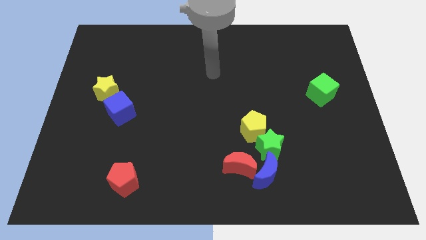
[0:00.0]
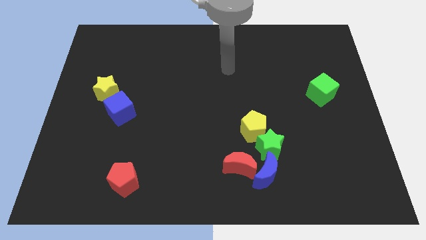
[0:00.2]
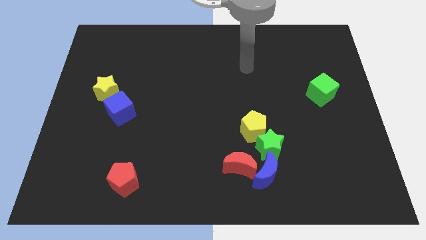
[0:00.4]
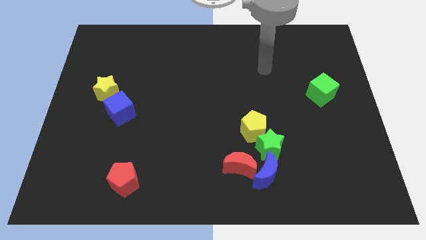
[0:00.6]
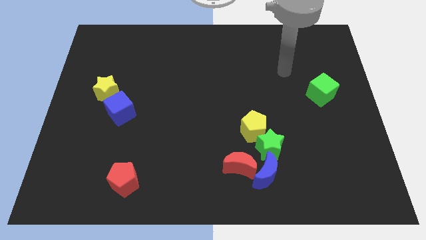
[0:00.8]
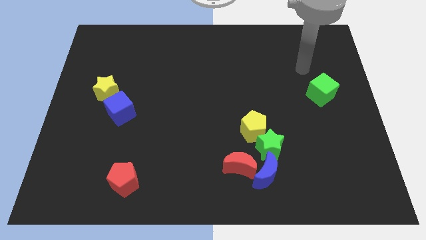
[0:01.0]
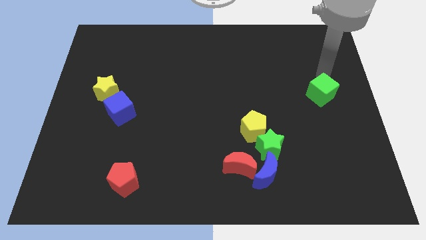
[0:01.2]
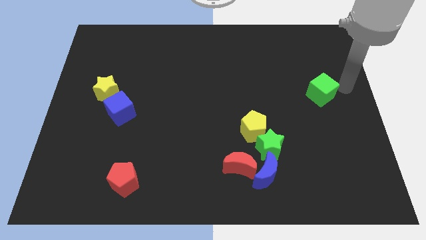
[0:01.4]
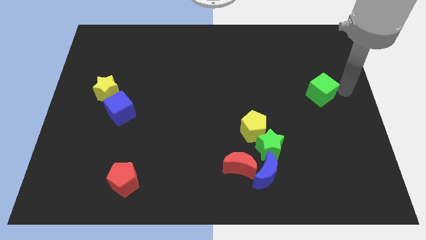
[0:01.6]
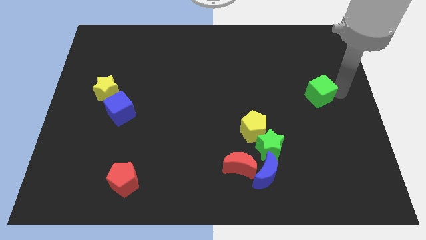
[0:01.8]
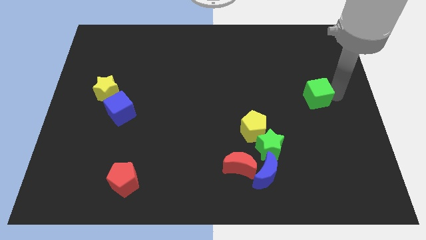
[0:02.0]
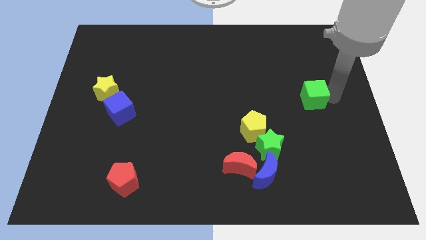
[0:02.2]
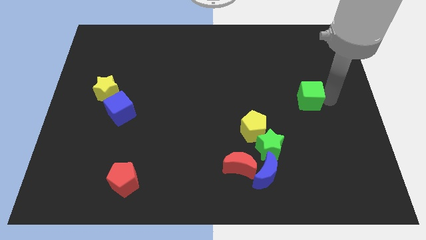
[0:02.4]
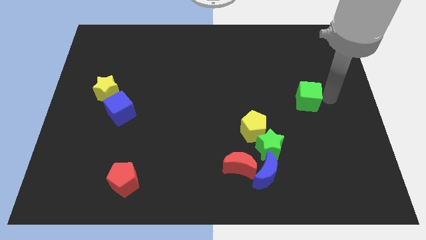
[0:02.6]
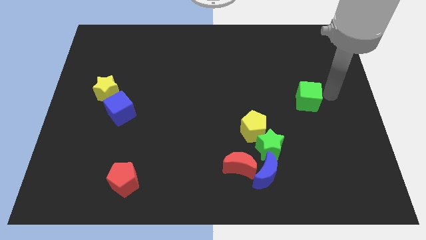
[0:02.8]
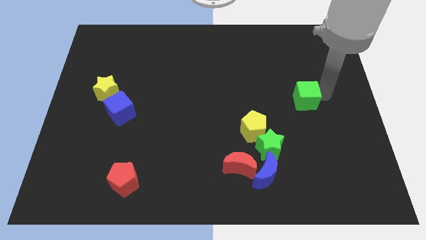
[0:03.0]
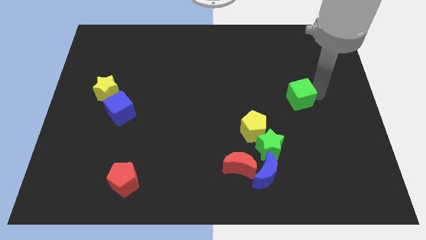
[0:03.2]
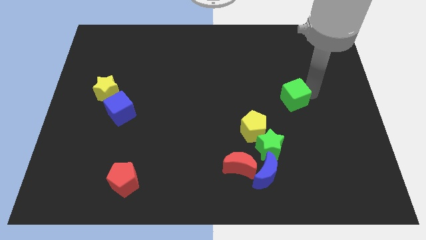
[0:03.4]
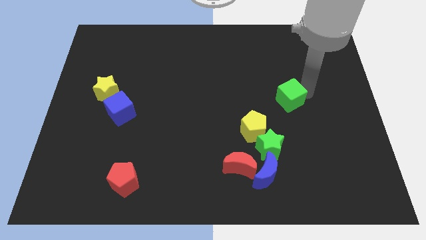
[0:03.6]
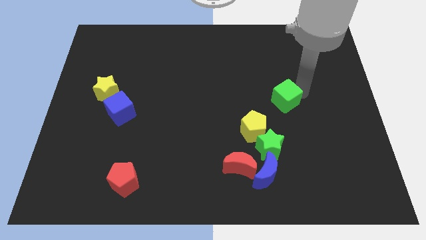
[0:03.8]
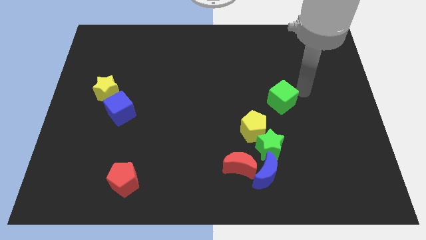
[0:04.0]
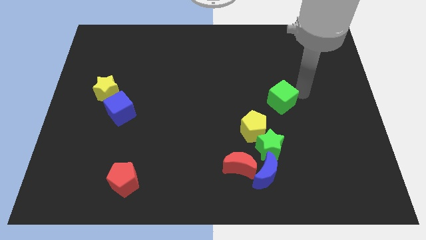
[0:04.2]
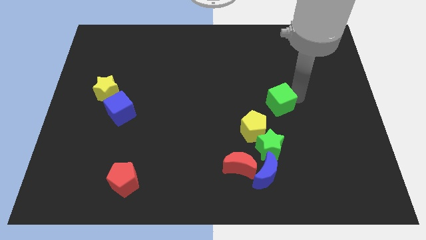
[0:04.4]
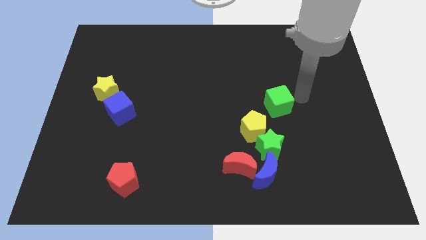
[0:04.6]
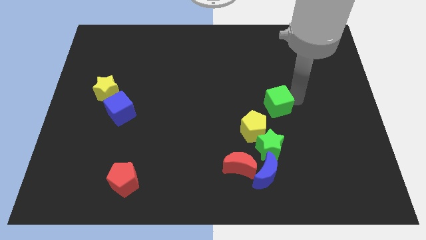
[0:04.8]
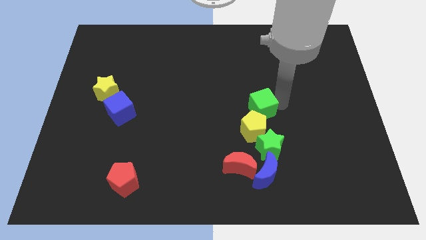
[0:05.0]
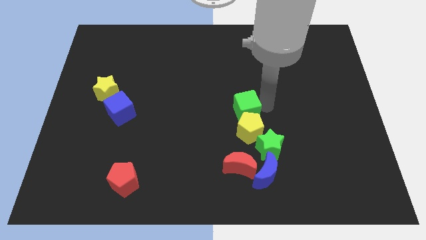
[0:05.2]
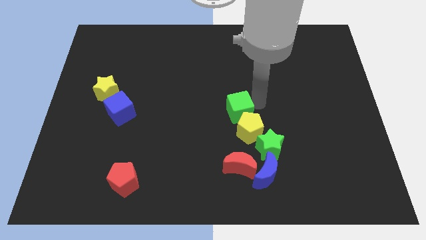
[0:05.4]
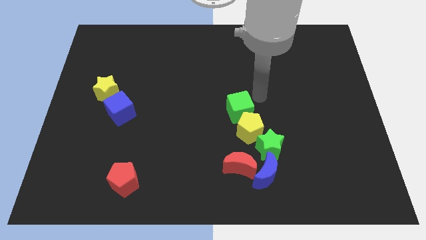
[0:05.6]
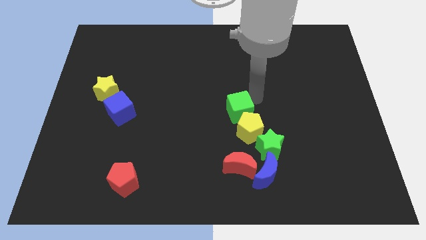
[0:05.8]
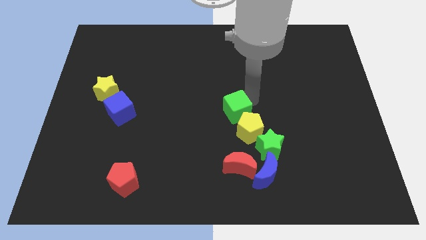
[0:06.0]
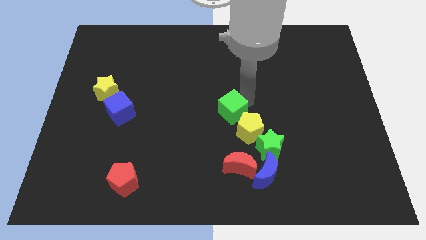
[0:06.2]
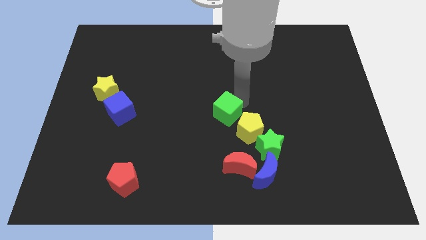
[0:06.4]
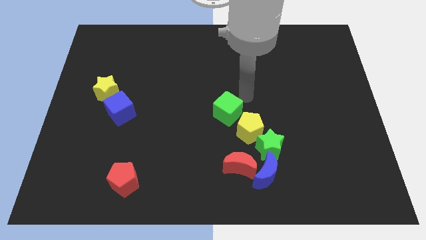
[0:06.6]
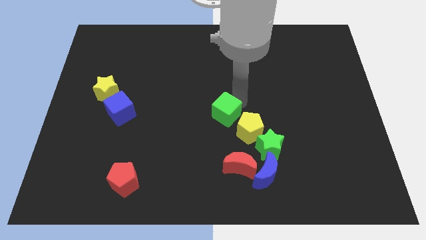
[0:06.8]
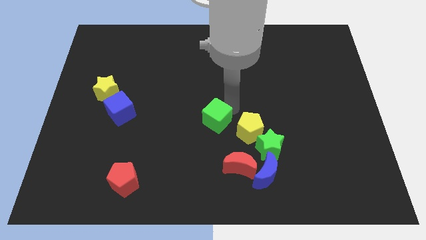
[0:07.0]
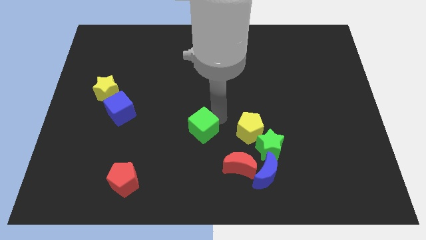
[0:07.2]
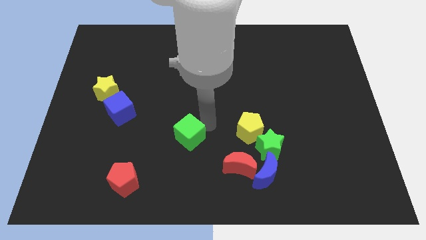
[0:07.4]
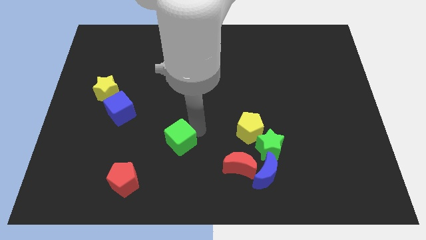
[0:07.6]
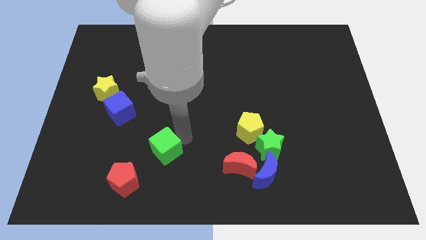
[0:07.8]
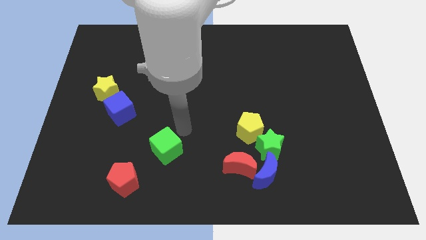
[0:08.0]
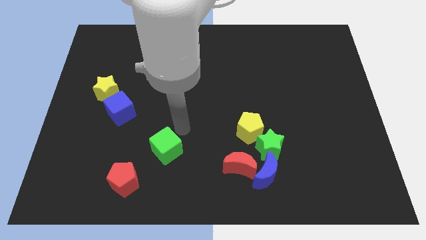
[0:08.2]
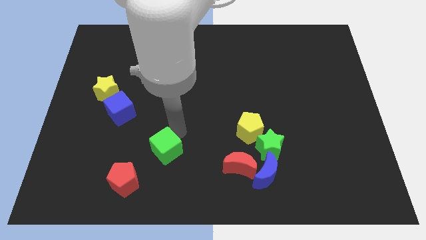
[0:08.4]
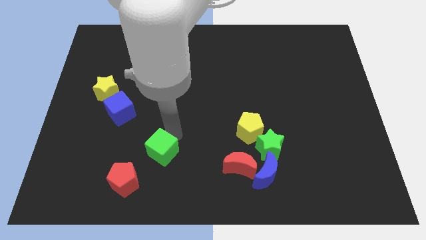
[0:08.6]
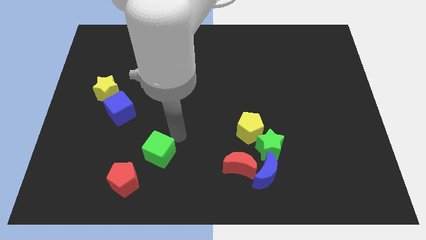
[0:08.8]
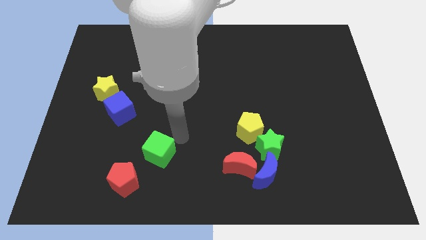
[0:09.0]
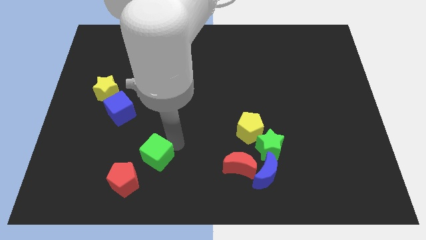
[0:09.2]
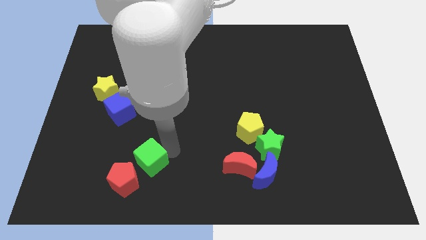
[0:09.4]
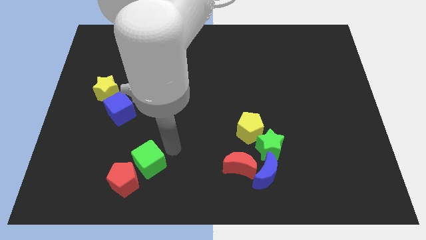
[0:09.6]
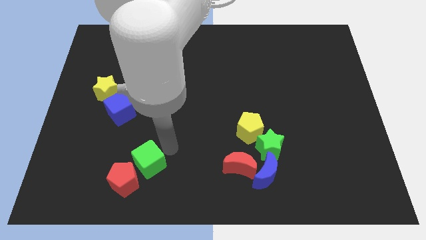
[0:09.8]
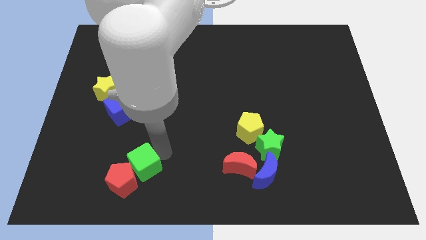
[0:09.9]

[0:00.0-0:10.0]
move the green cube to the red pentagon

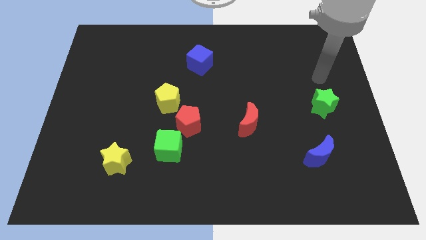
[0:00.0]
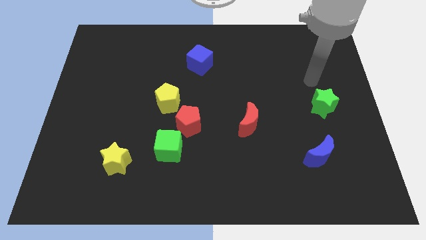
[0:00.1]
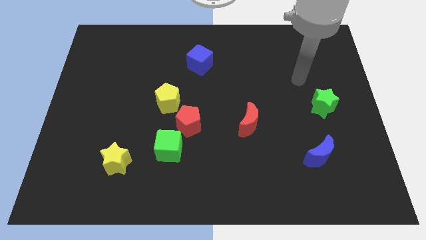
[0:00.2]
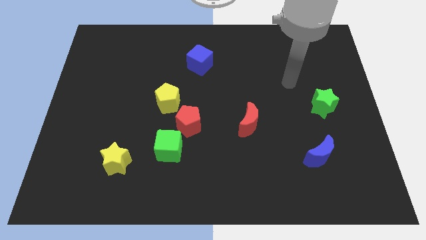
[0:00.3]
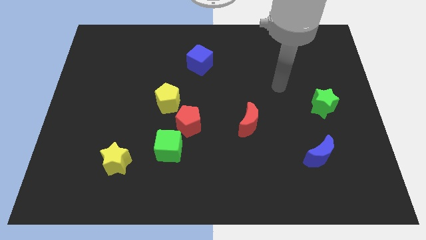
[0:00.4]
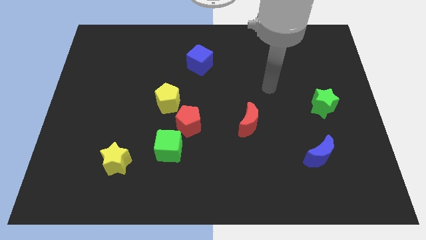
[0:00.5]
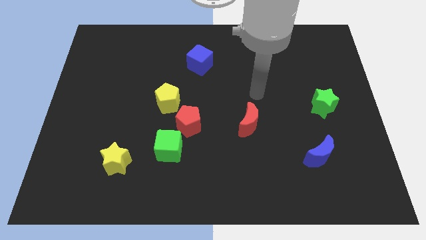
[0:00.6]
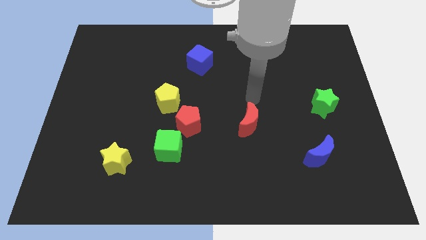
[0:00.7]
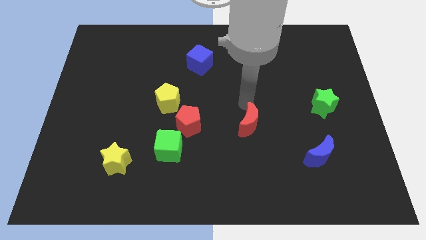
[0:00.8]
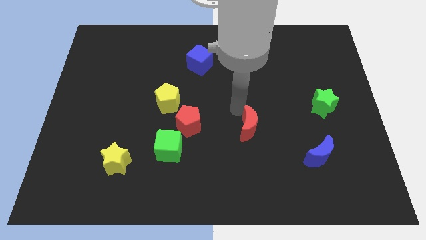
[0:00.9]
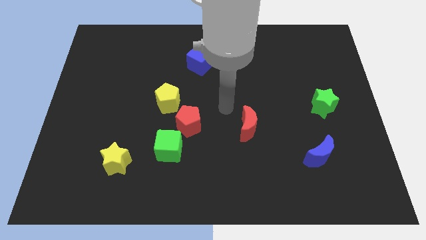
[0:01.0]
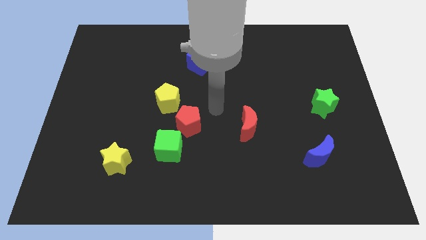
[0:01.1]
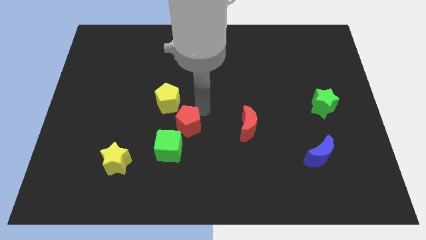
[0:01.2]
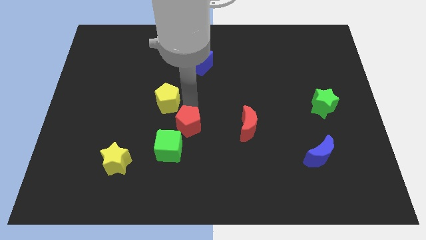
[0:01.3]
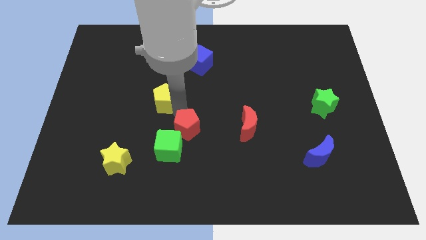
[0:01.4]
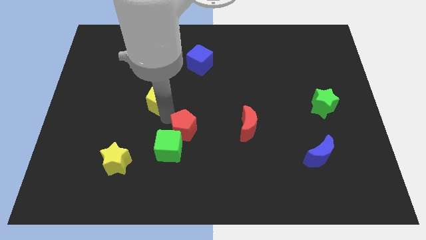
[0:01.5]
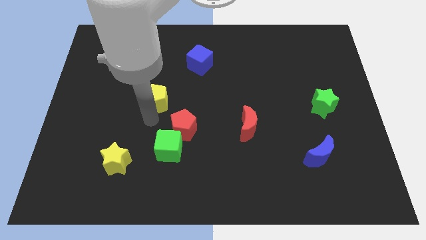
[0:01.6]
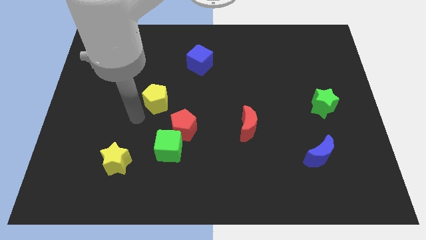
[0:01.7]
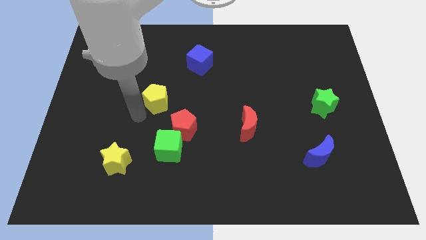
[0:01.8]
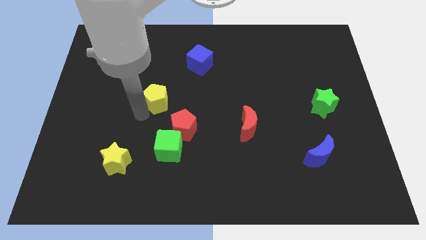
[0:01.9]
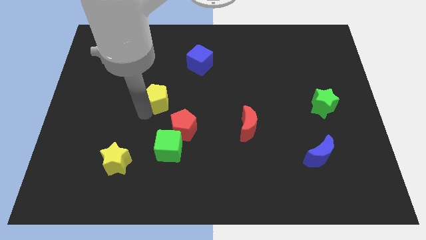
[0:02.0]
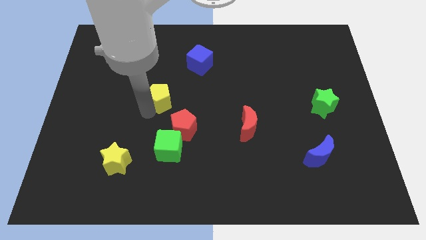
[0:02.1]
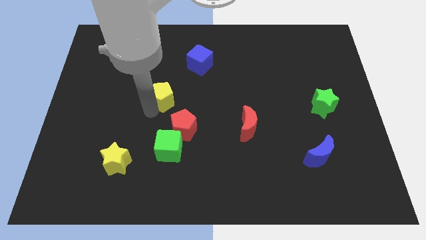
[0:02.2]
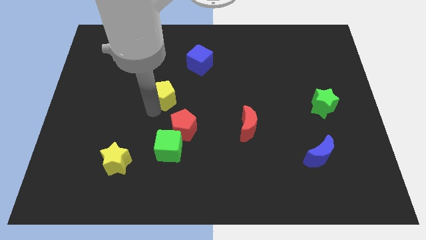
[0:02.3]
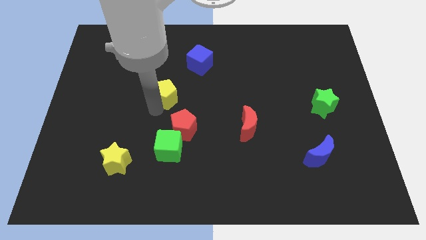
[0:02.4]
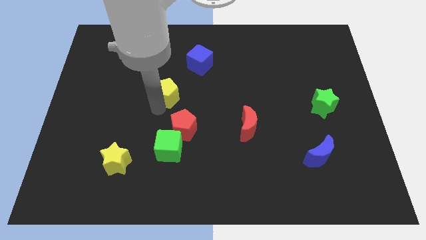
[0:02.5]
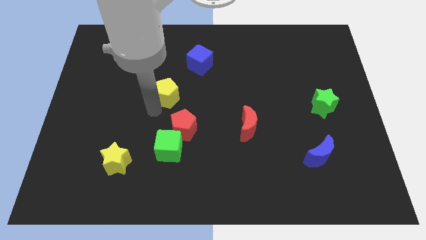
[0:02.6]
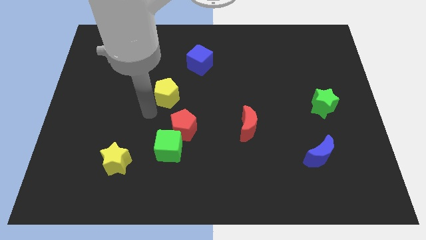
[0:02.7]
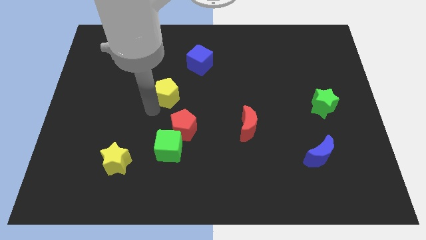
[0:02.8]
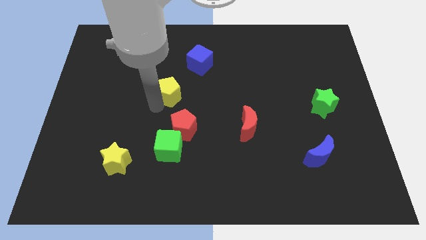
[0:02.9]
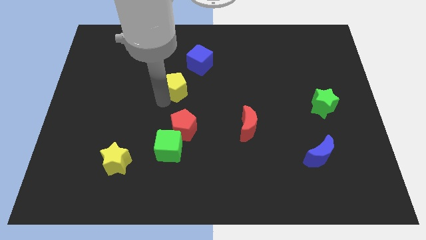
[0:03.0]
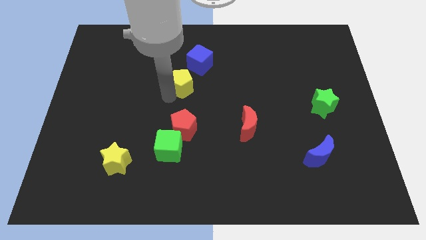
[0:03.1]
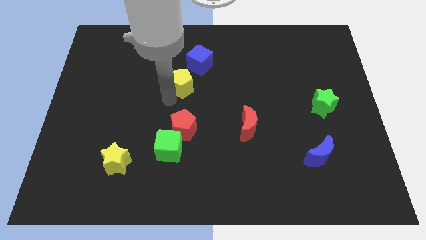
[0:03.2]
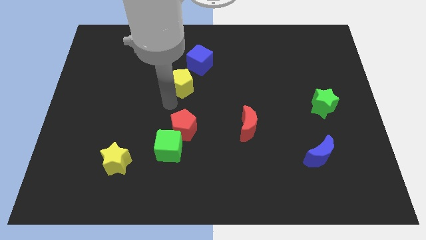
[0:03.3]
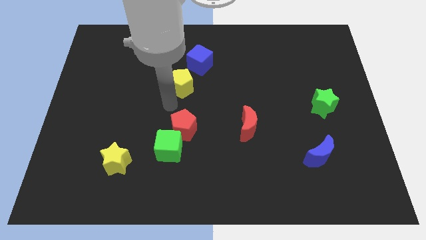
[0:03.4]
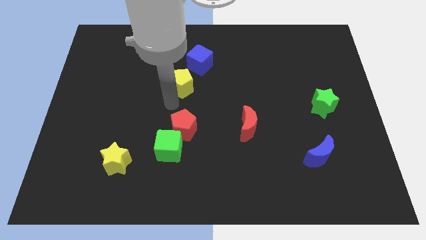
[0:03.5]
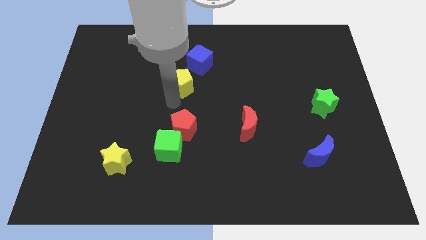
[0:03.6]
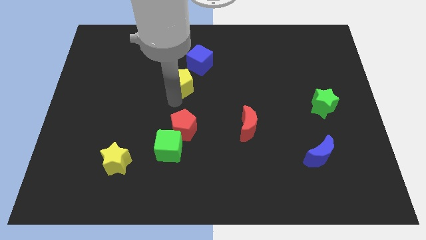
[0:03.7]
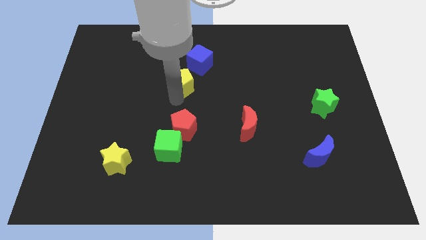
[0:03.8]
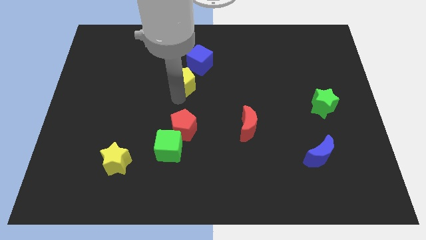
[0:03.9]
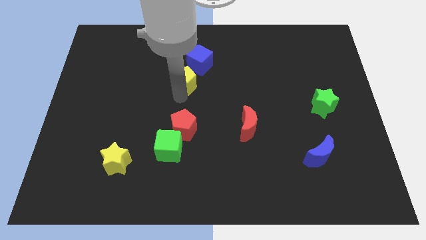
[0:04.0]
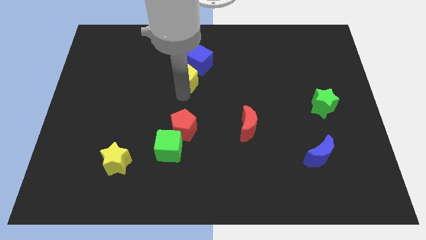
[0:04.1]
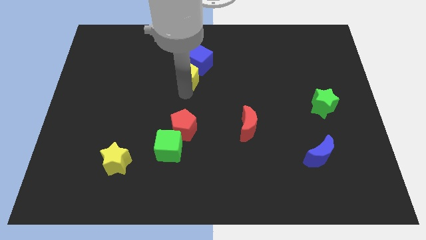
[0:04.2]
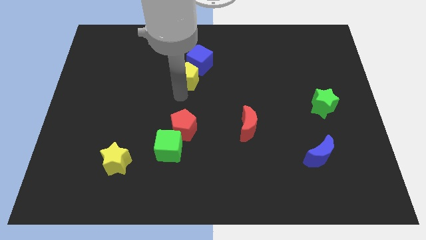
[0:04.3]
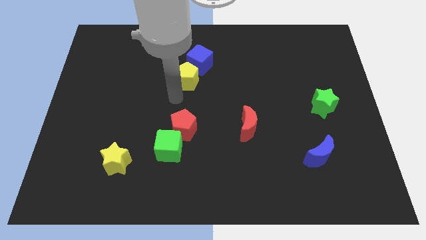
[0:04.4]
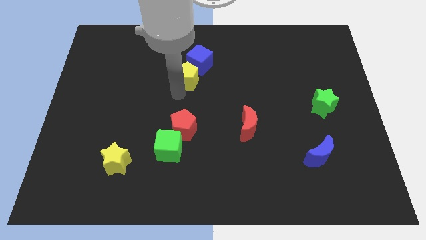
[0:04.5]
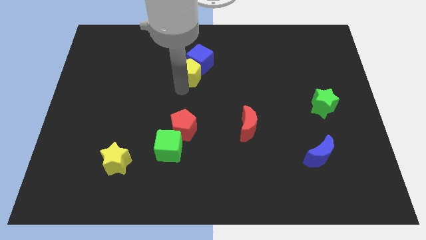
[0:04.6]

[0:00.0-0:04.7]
push the yellow pentagon close to the blue cube
